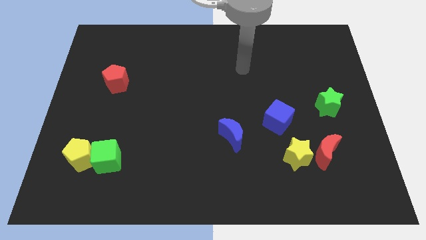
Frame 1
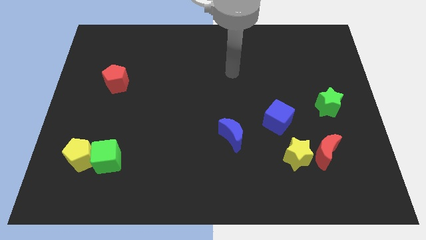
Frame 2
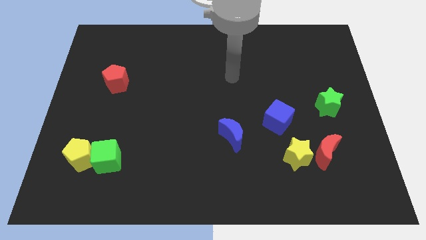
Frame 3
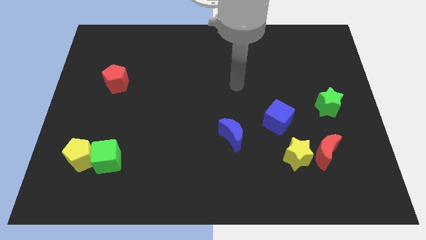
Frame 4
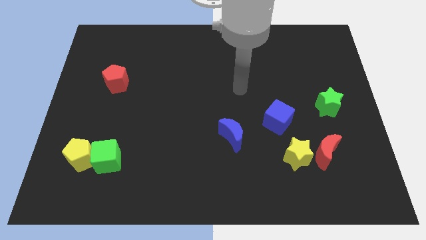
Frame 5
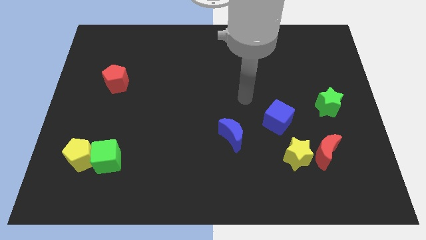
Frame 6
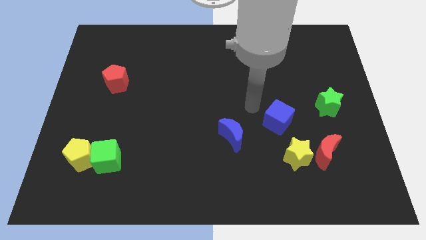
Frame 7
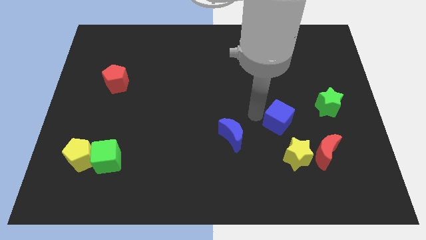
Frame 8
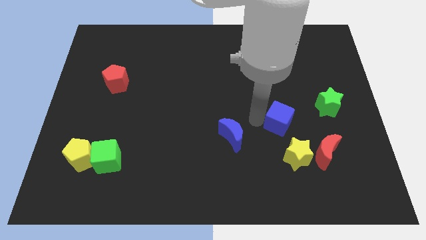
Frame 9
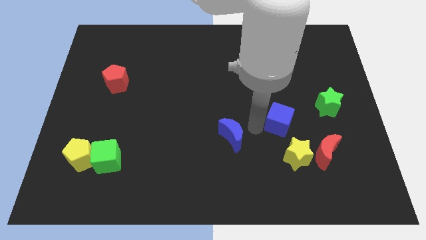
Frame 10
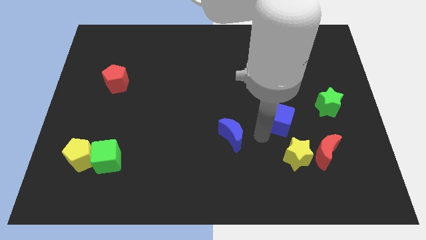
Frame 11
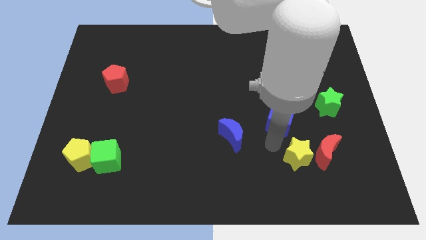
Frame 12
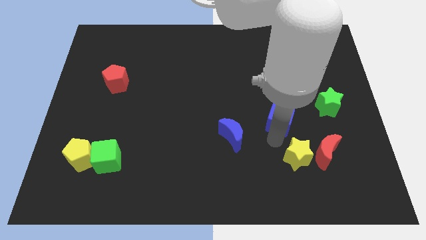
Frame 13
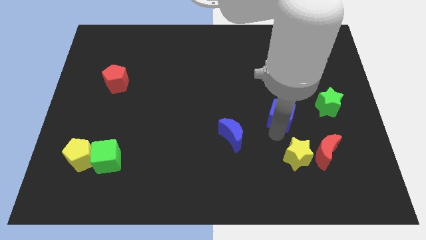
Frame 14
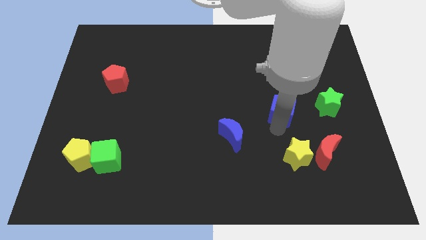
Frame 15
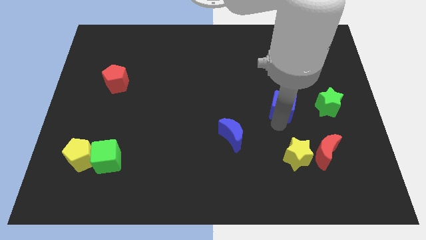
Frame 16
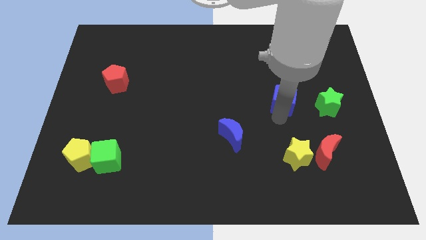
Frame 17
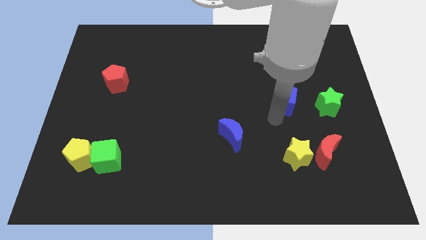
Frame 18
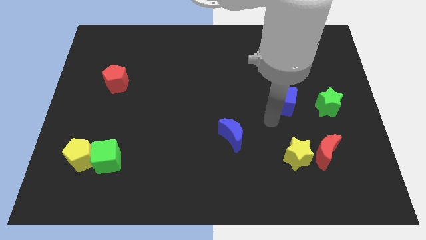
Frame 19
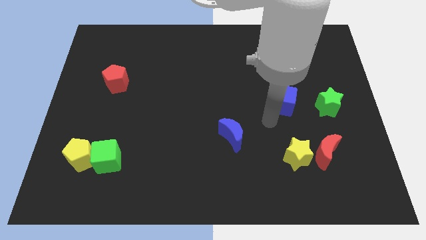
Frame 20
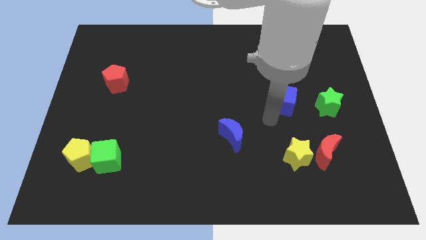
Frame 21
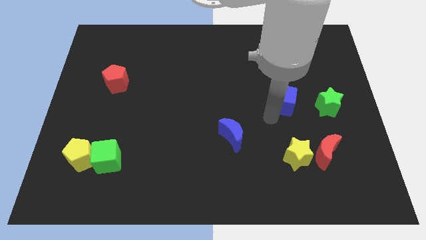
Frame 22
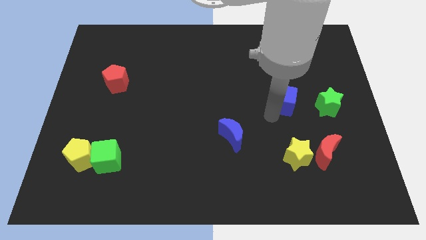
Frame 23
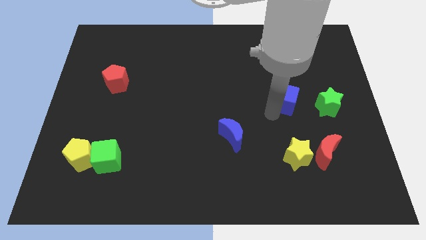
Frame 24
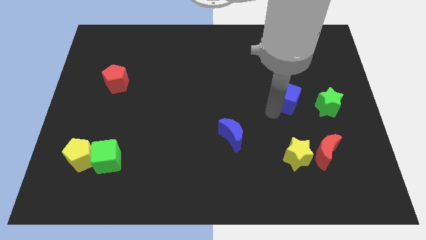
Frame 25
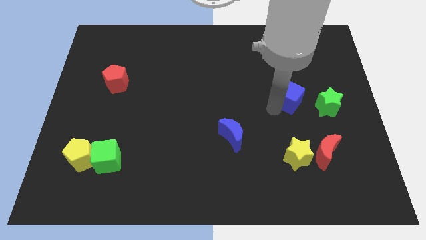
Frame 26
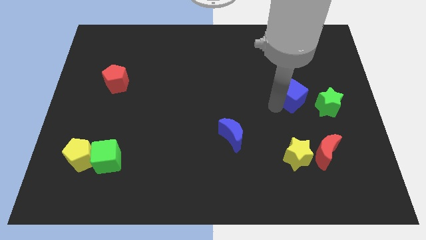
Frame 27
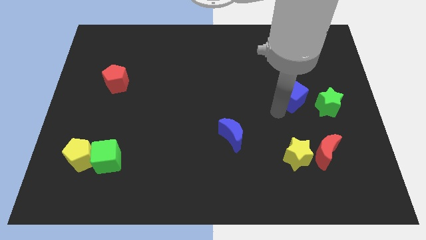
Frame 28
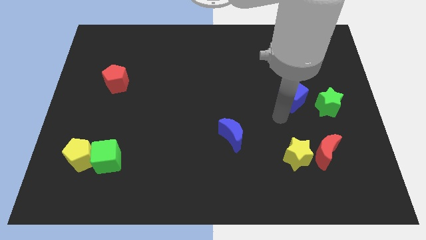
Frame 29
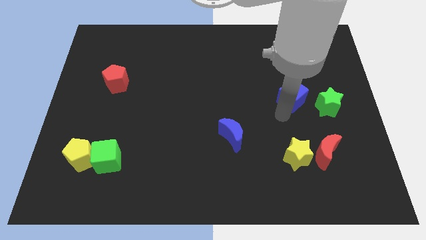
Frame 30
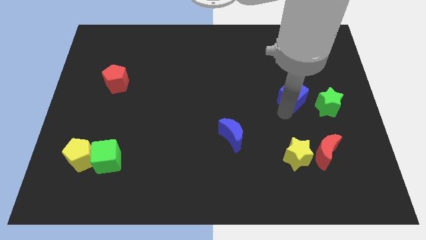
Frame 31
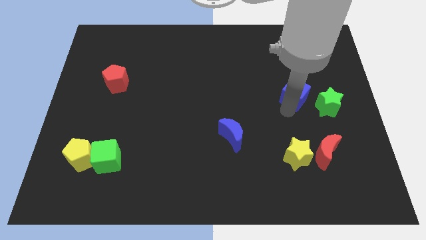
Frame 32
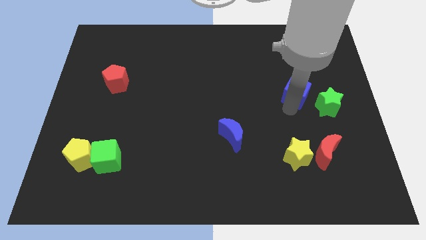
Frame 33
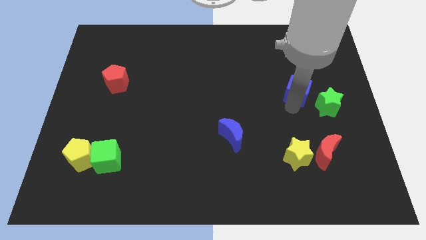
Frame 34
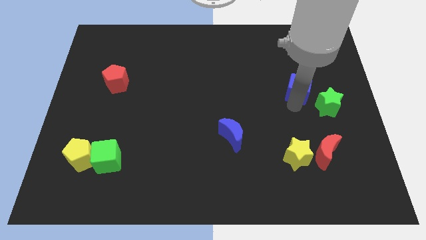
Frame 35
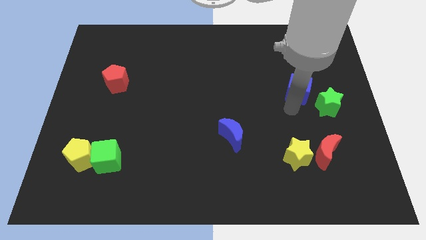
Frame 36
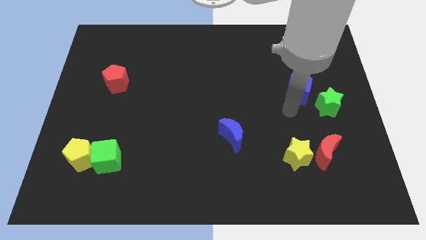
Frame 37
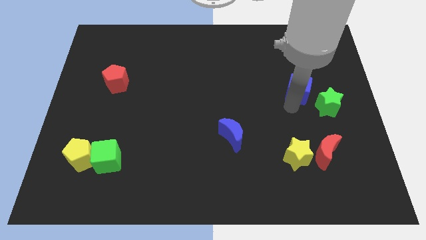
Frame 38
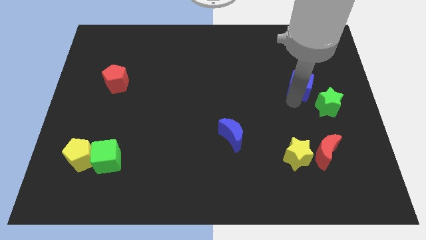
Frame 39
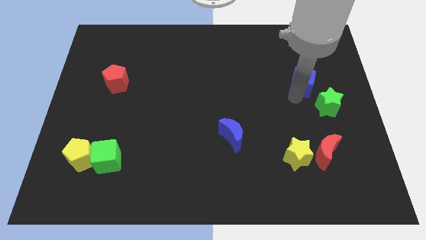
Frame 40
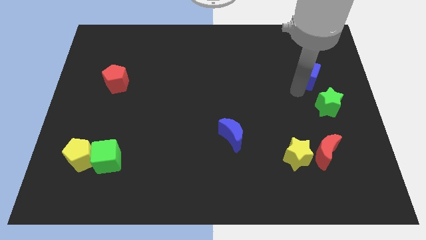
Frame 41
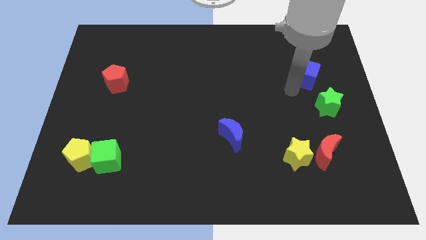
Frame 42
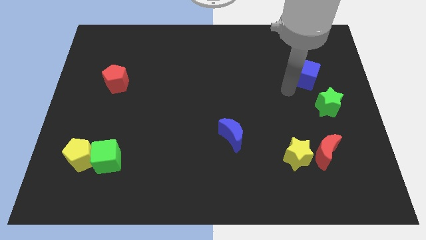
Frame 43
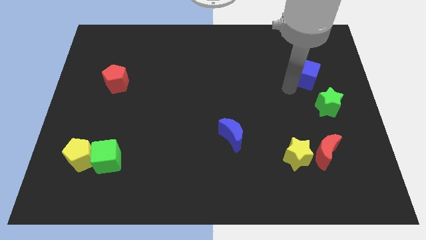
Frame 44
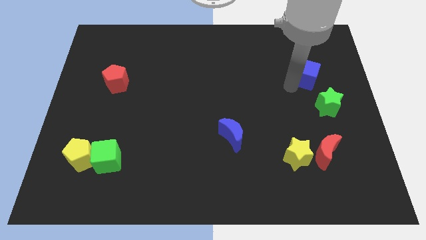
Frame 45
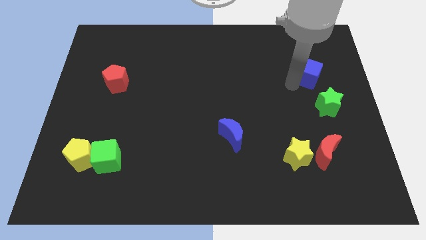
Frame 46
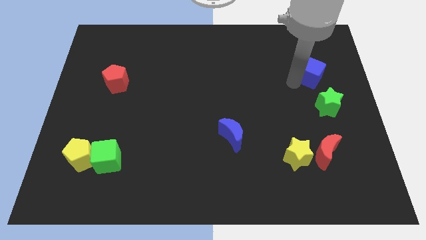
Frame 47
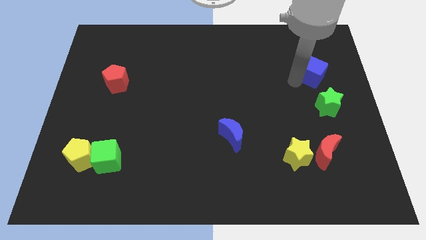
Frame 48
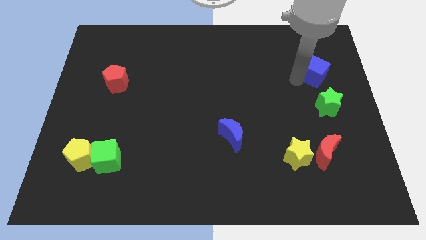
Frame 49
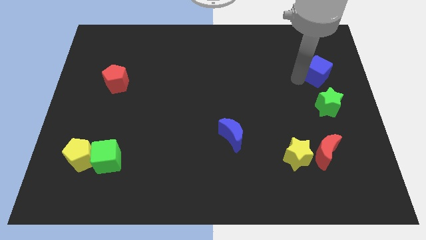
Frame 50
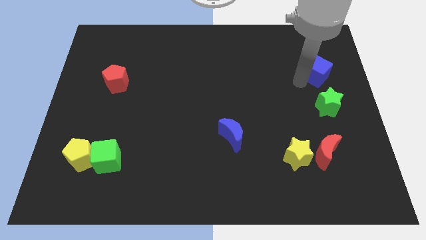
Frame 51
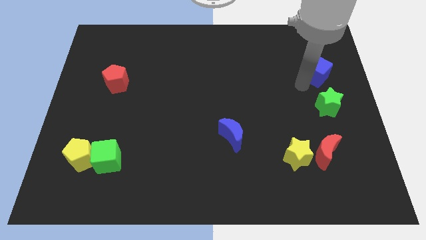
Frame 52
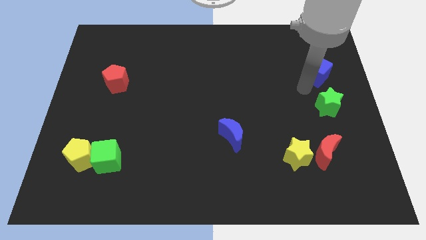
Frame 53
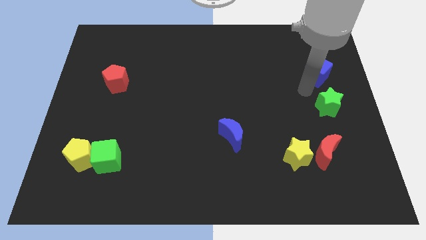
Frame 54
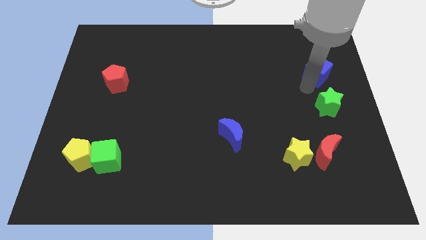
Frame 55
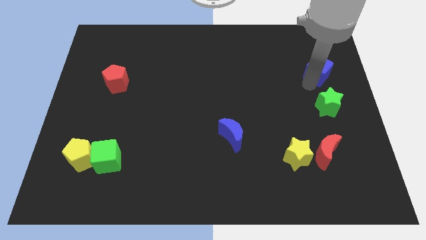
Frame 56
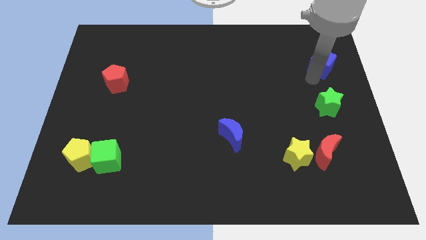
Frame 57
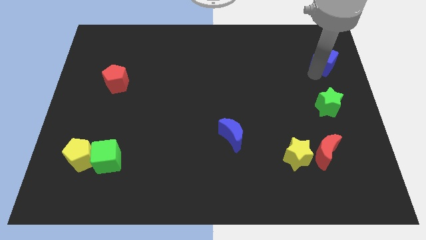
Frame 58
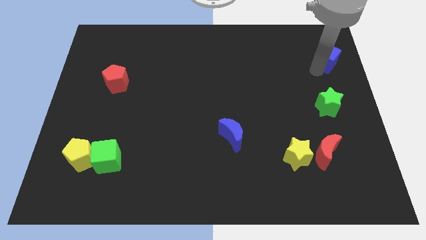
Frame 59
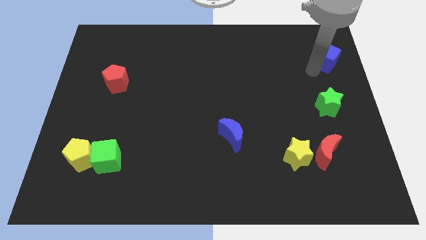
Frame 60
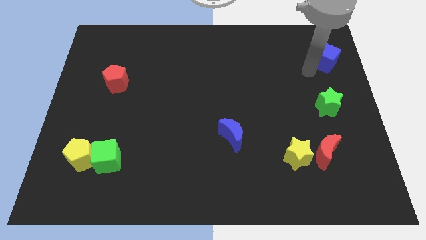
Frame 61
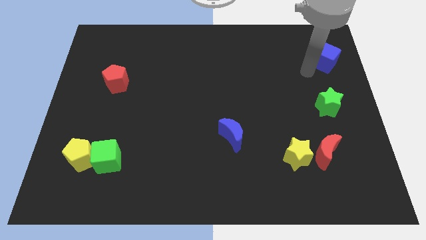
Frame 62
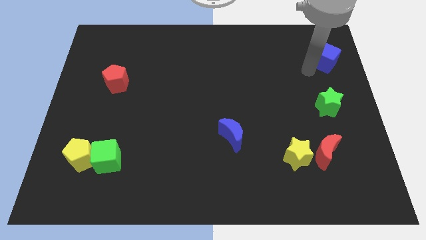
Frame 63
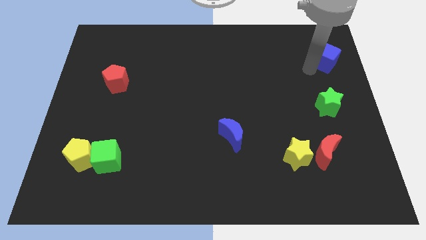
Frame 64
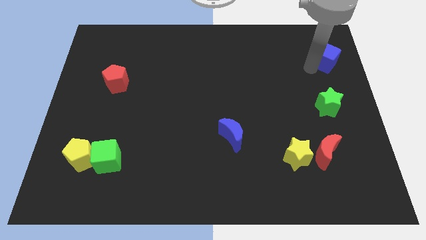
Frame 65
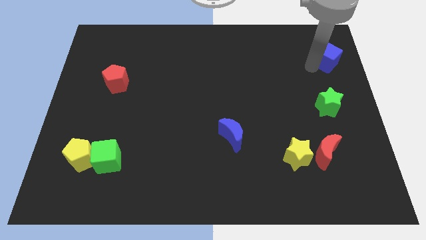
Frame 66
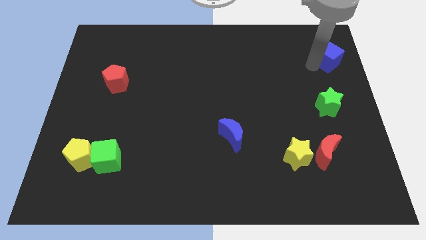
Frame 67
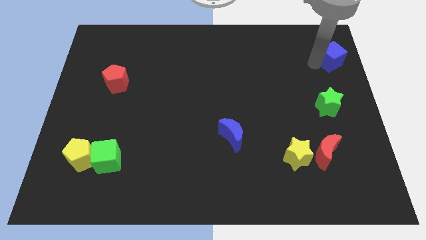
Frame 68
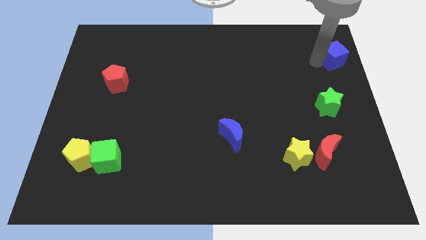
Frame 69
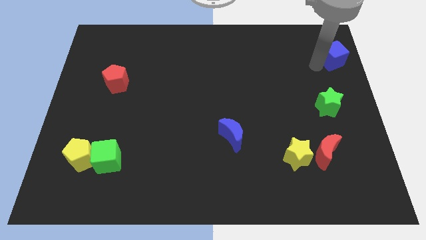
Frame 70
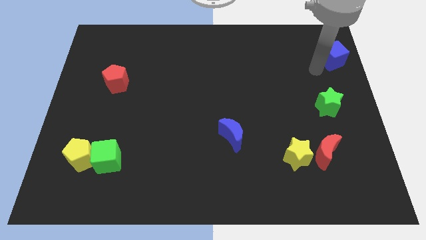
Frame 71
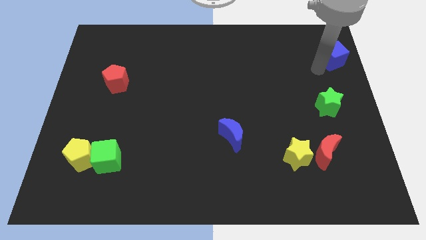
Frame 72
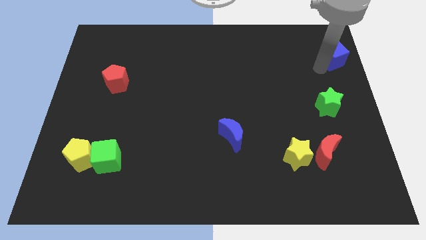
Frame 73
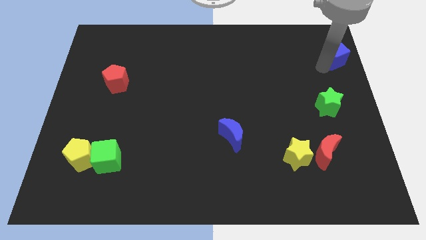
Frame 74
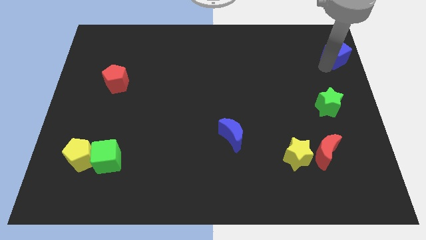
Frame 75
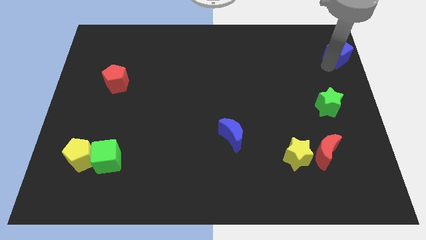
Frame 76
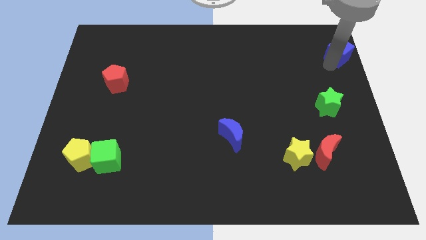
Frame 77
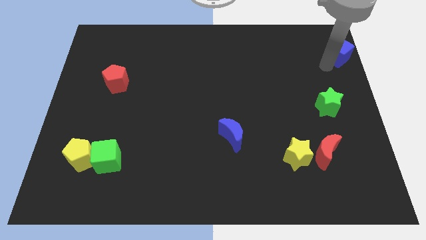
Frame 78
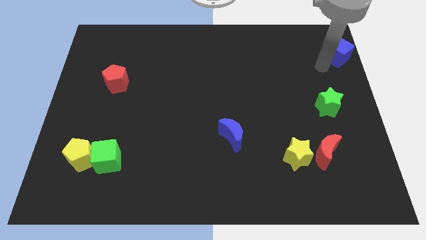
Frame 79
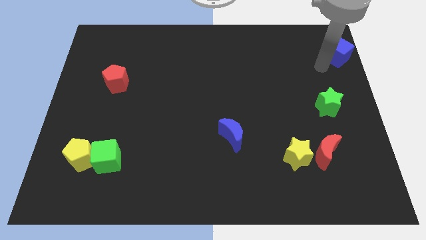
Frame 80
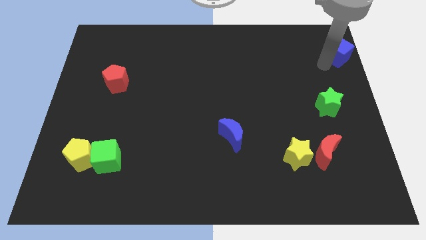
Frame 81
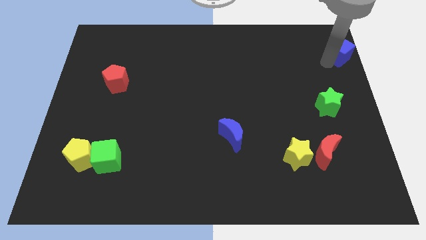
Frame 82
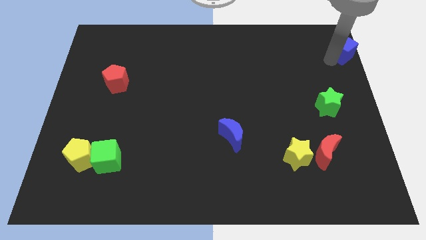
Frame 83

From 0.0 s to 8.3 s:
move the blue cube to the top right corner
